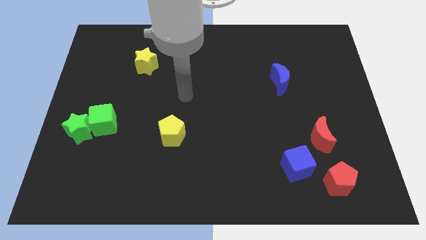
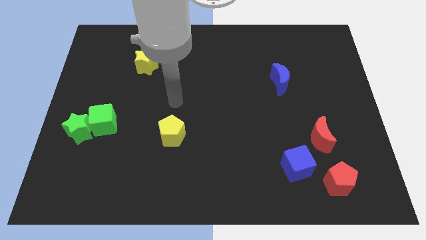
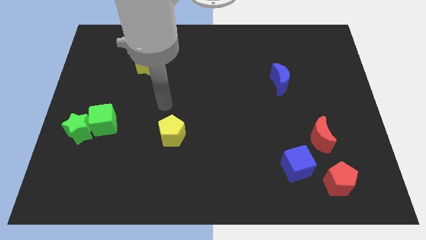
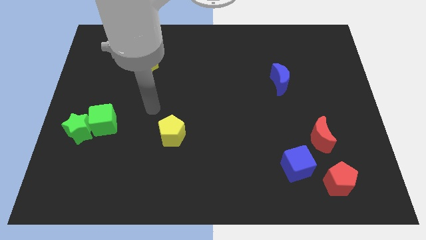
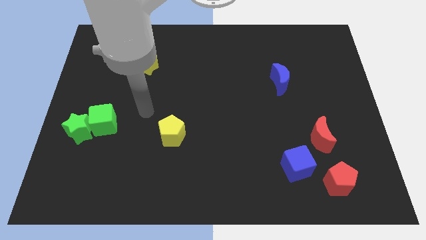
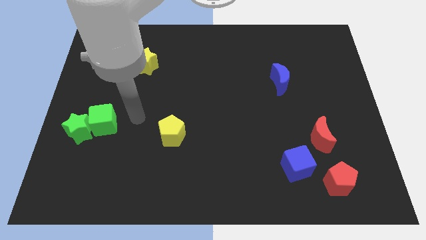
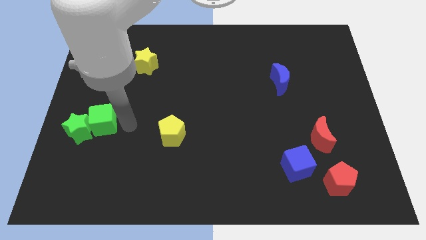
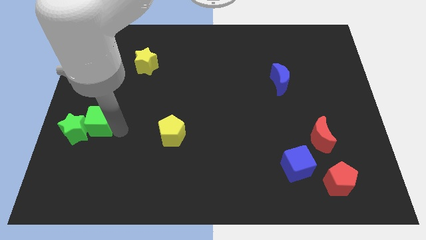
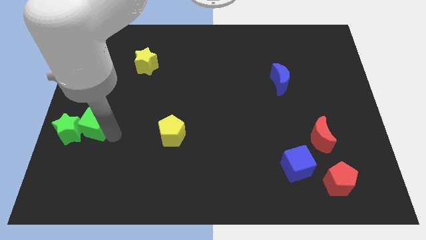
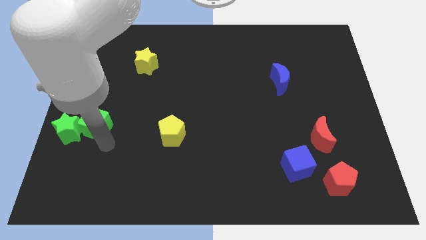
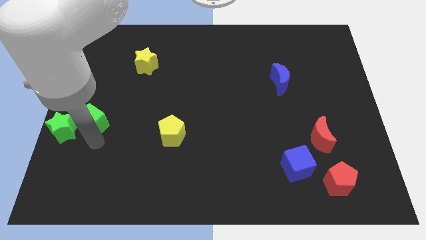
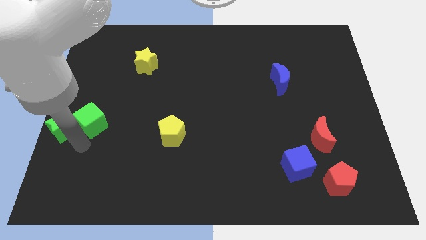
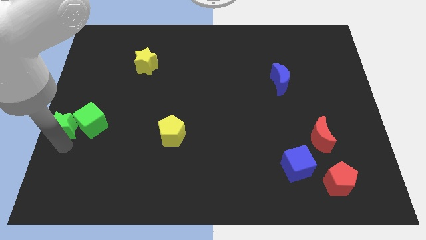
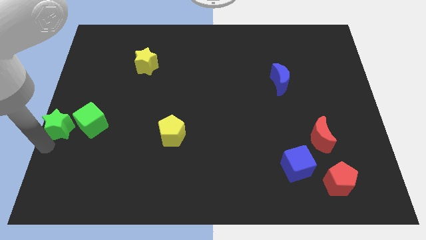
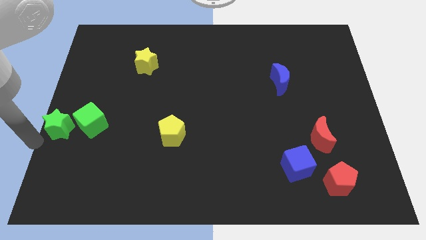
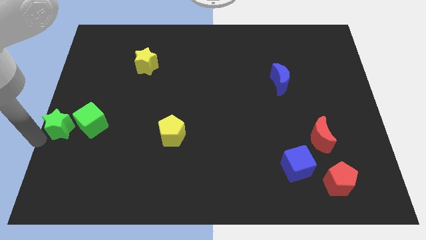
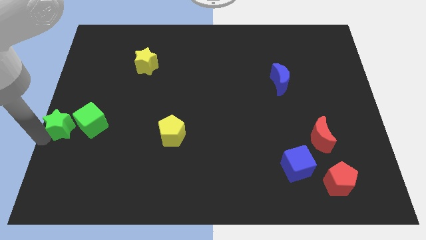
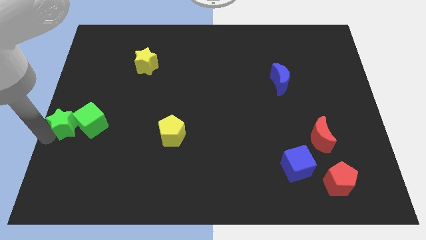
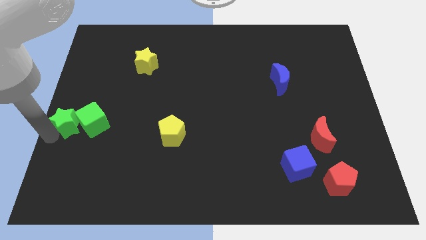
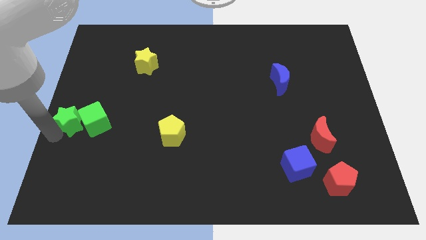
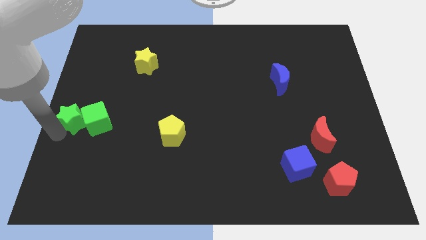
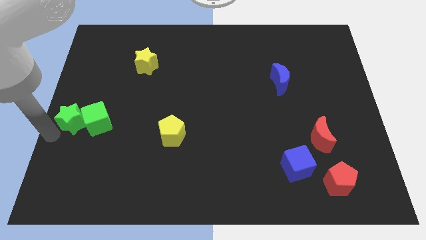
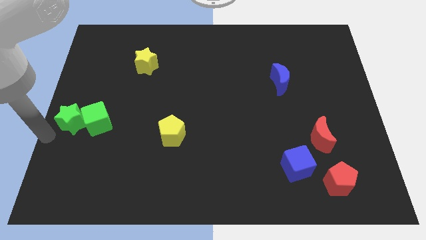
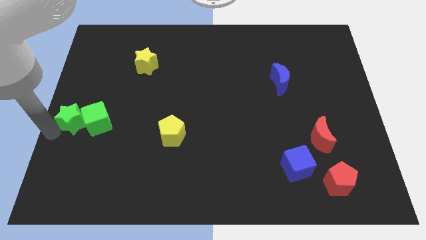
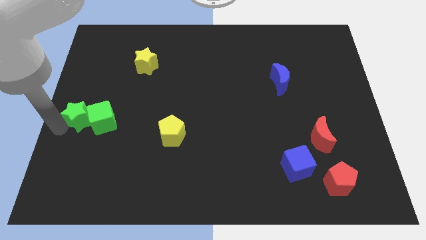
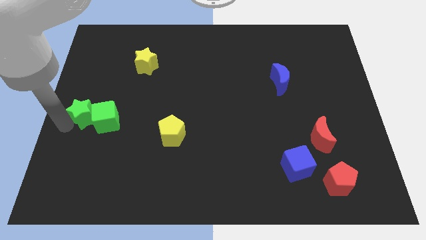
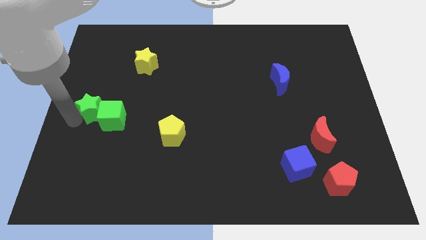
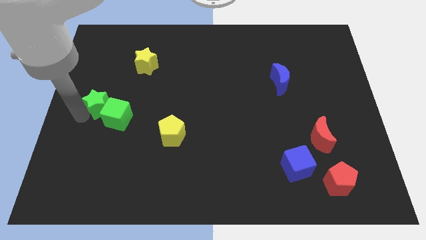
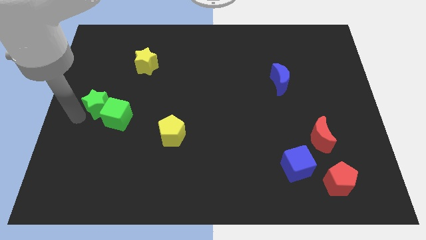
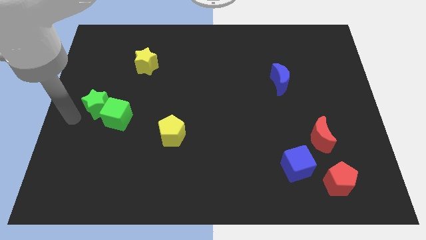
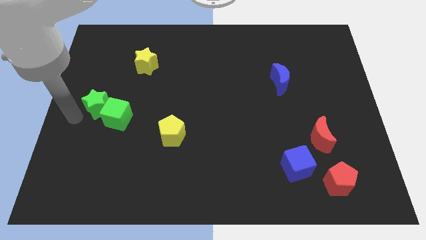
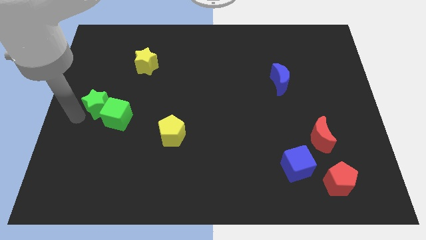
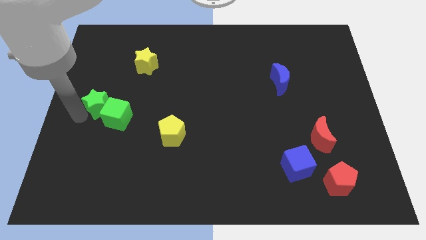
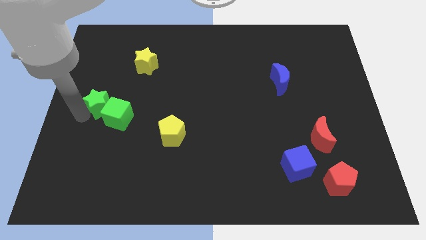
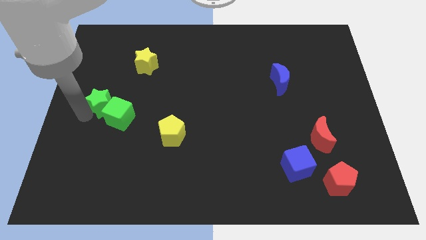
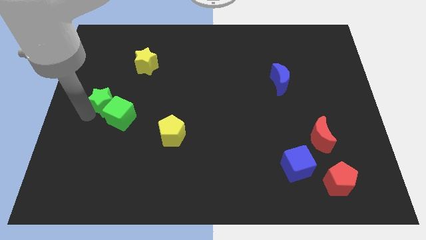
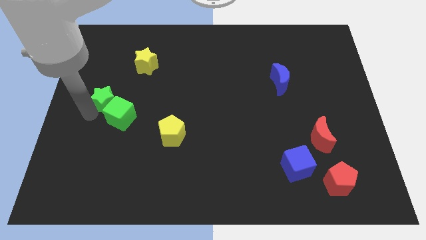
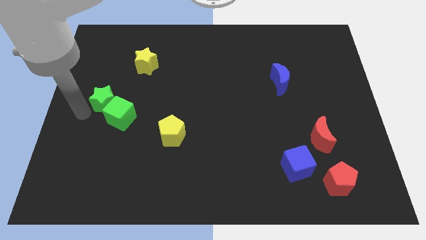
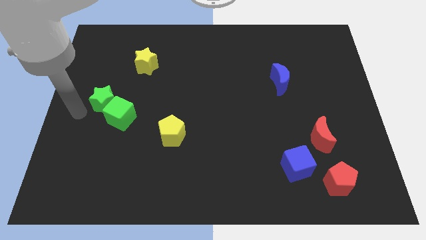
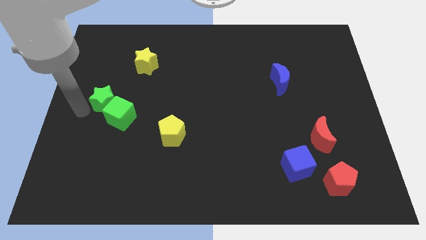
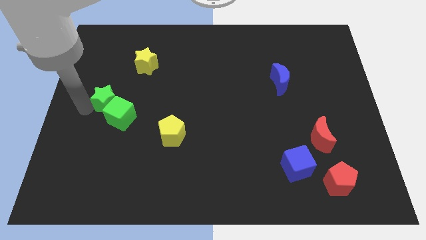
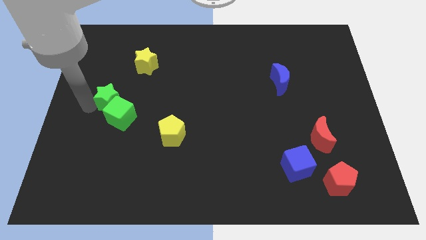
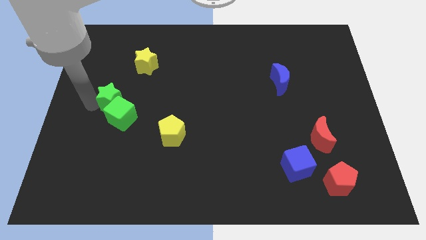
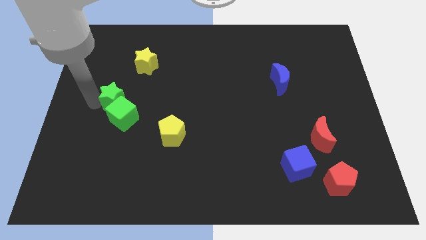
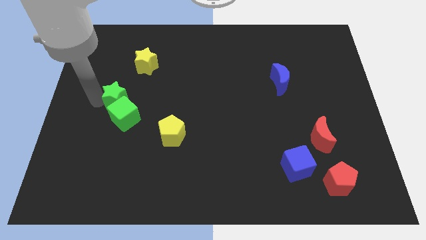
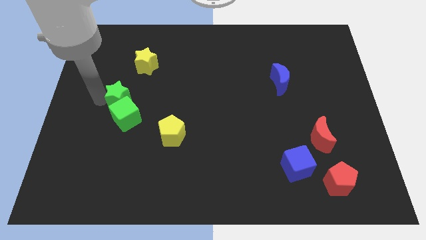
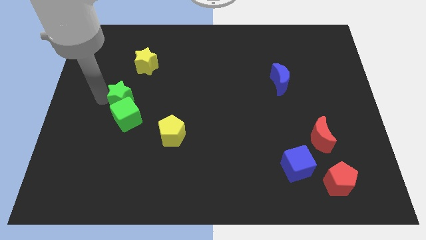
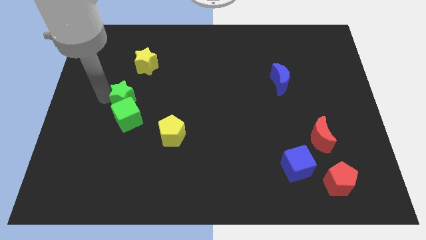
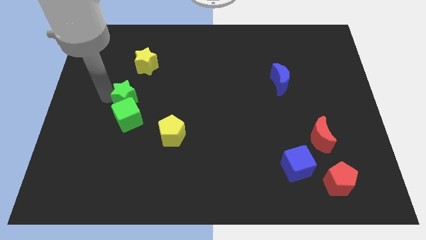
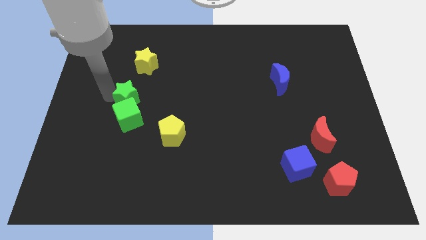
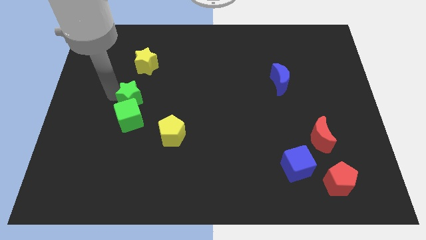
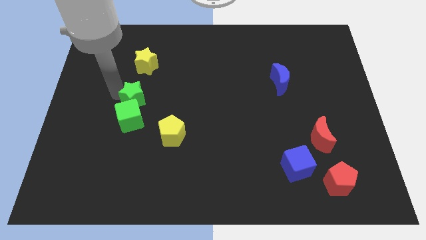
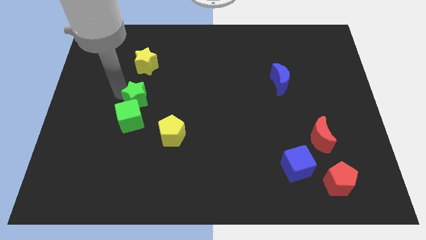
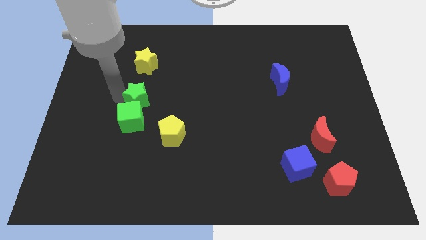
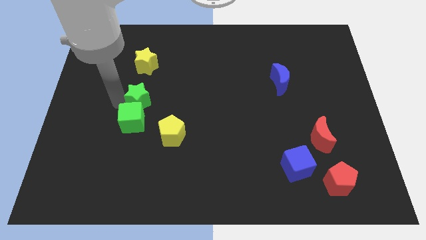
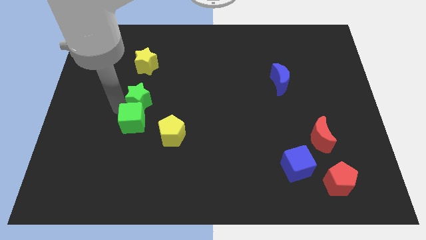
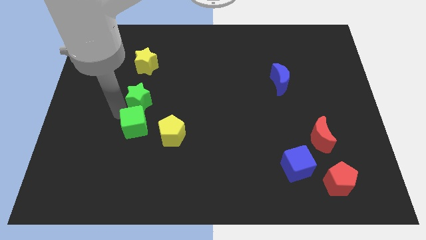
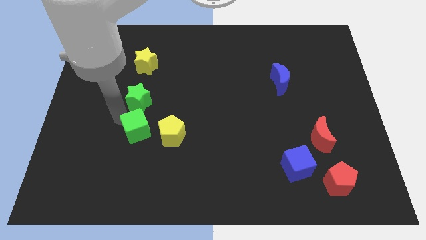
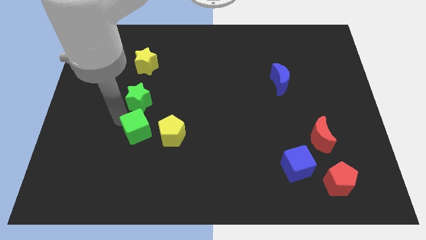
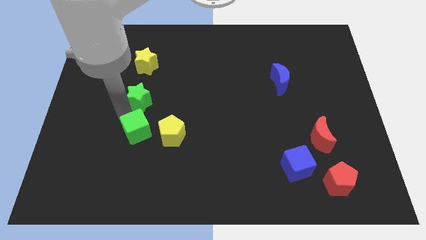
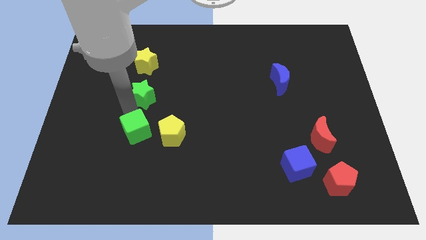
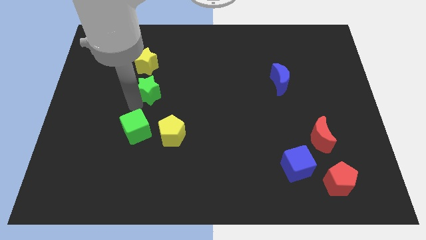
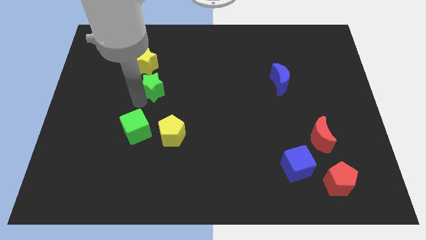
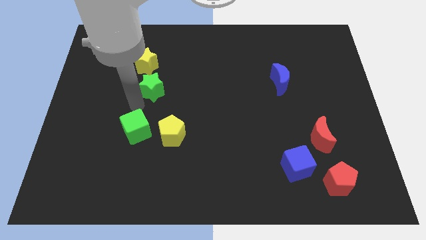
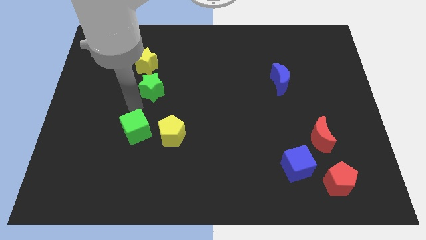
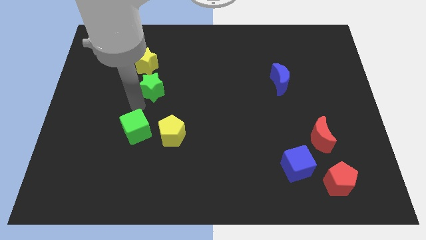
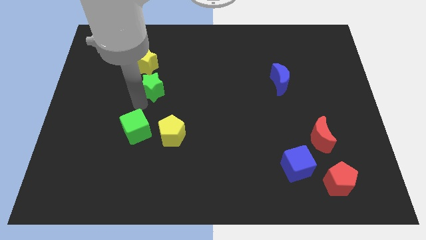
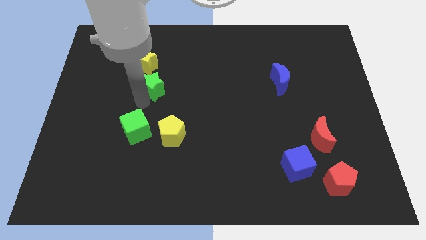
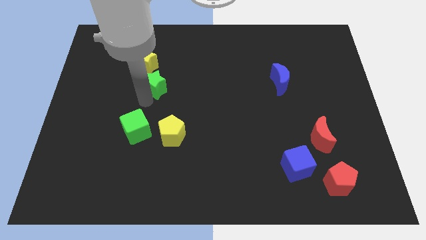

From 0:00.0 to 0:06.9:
move the green star upwards and then right

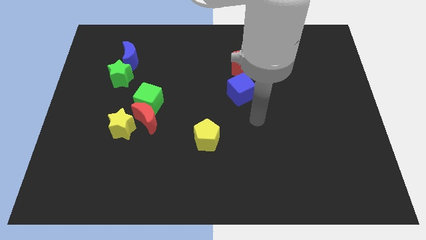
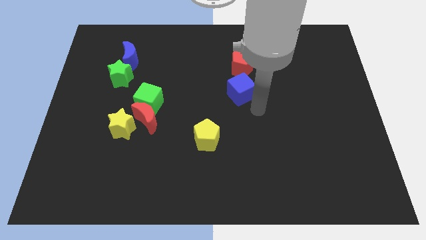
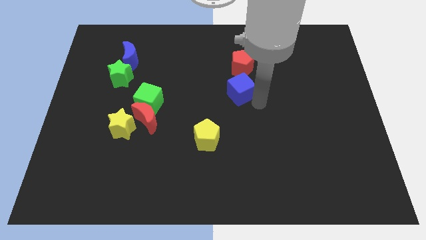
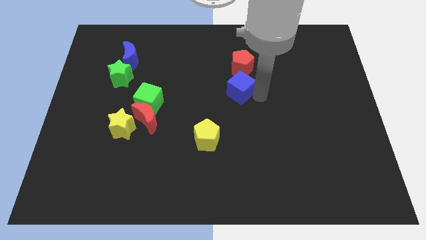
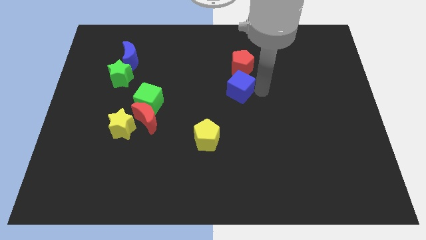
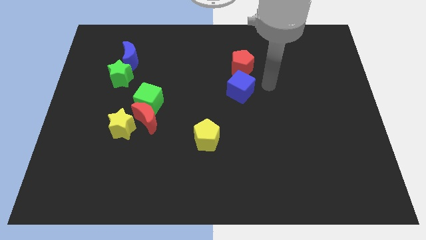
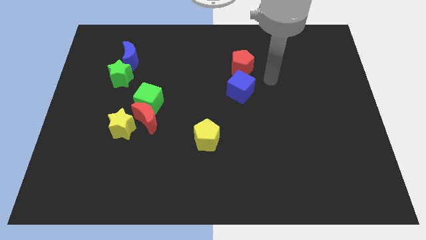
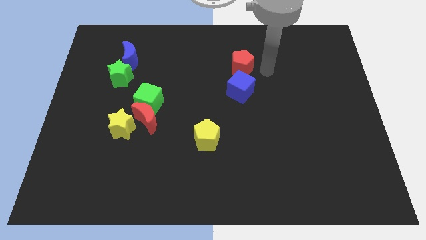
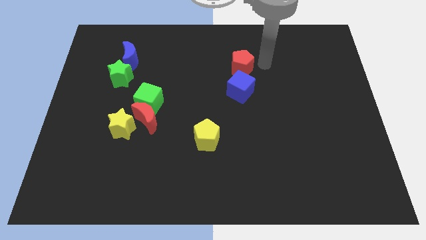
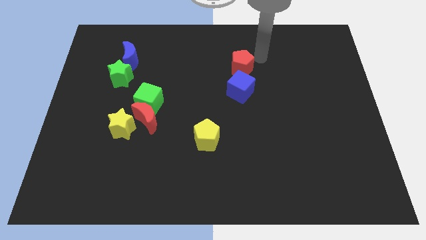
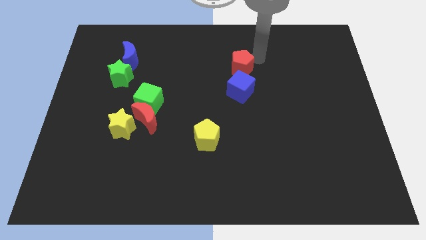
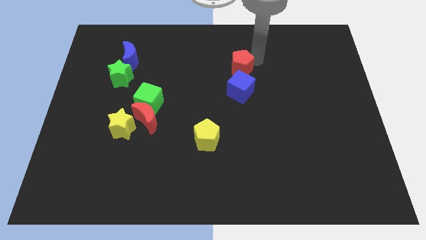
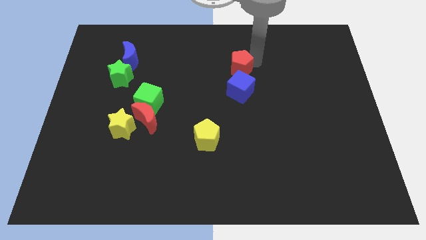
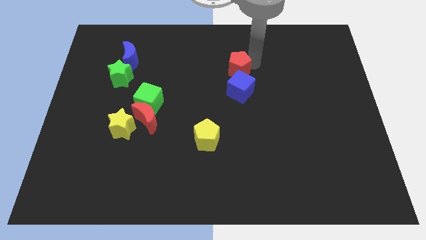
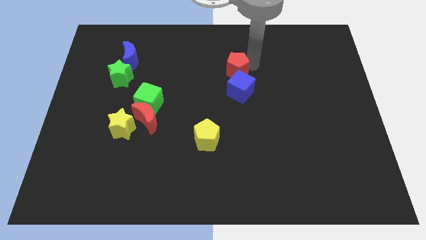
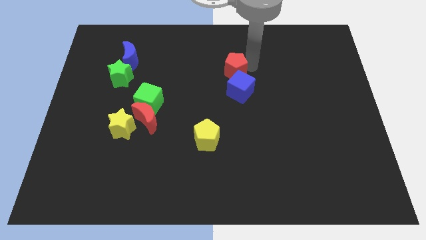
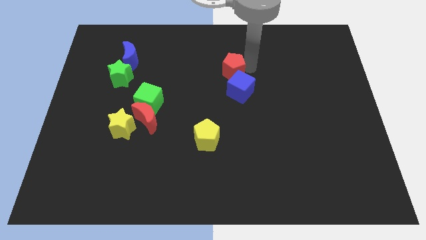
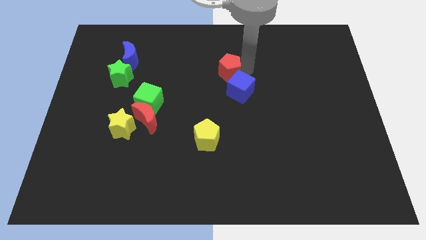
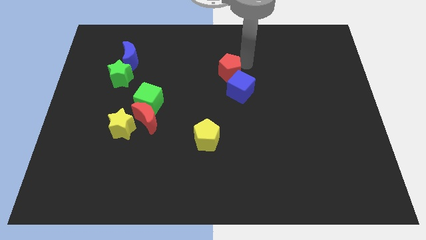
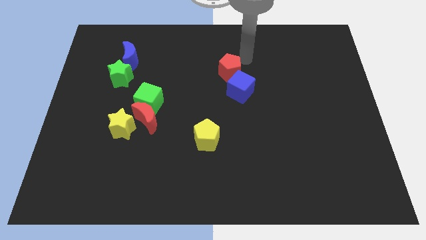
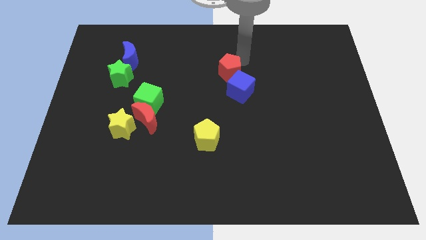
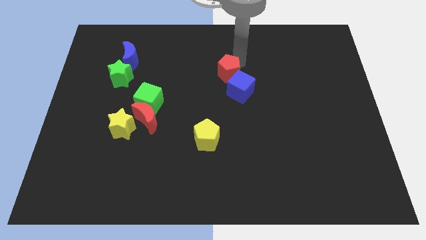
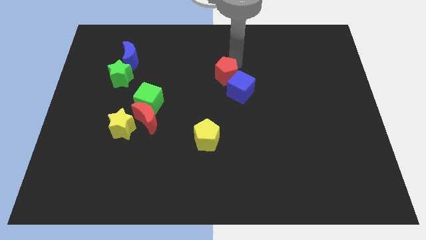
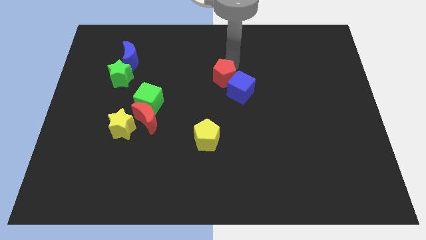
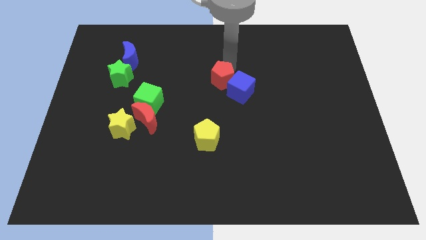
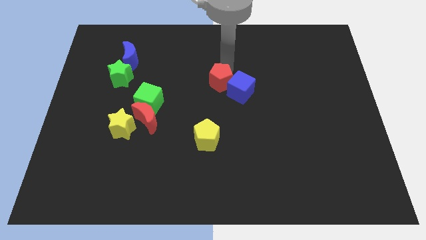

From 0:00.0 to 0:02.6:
slightly push the red pentagon down and to the left
